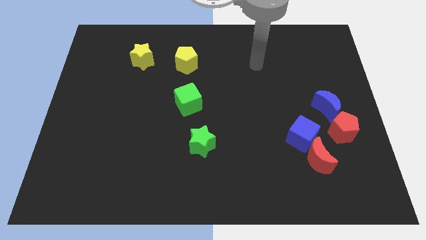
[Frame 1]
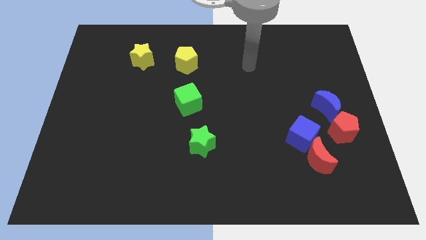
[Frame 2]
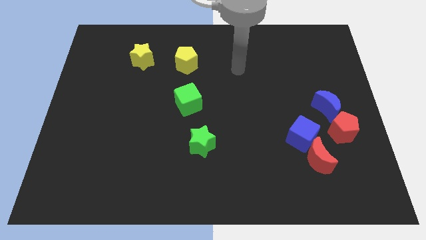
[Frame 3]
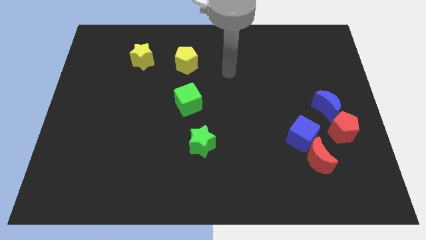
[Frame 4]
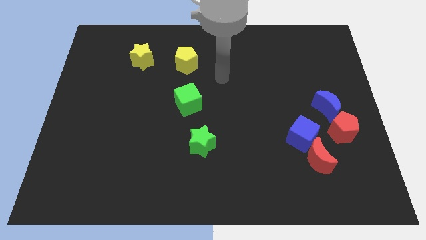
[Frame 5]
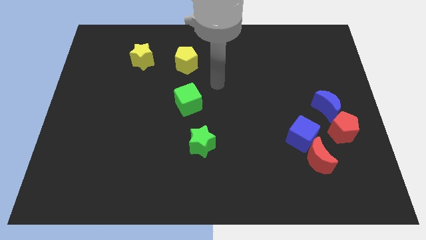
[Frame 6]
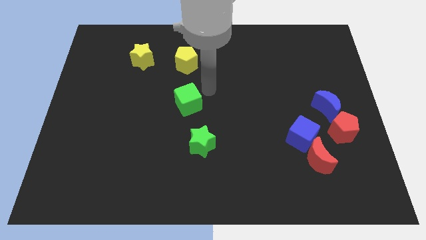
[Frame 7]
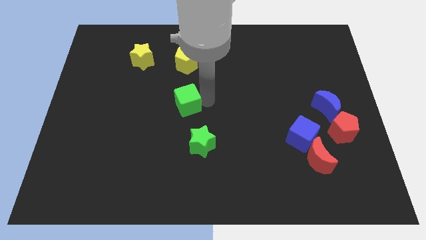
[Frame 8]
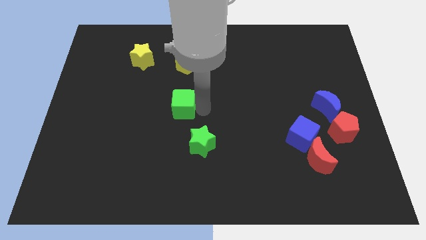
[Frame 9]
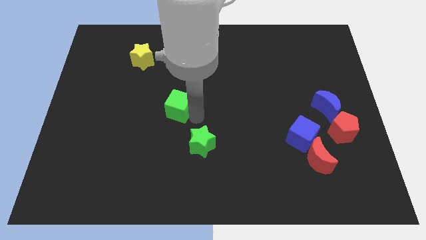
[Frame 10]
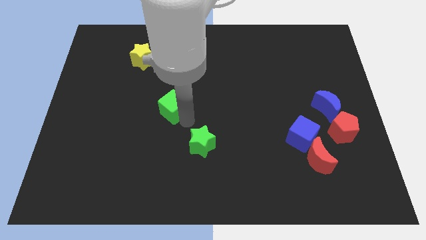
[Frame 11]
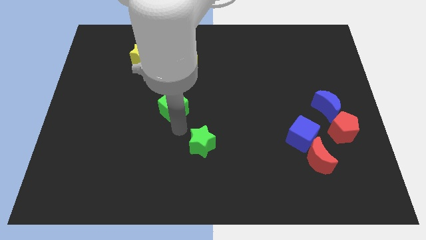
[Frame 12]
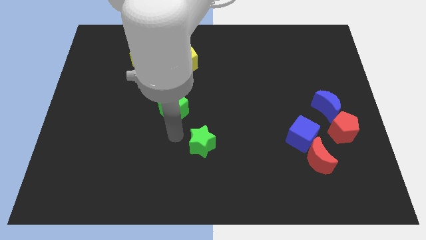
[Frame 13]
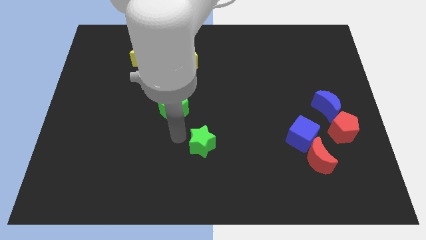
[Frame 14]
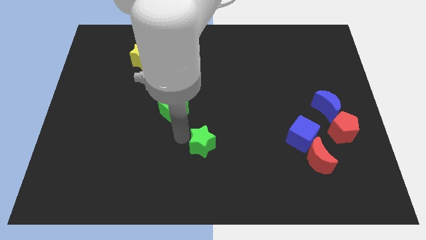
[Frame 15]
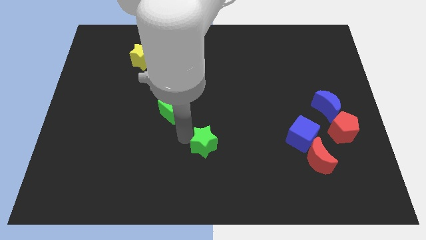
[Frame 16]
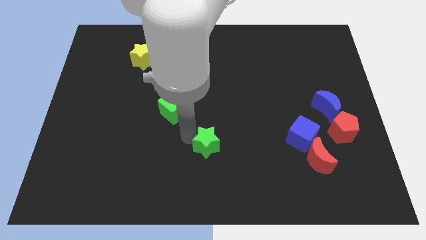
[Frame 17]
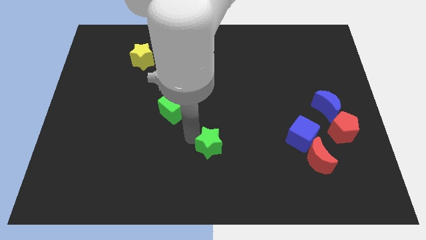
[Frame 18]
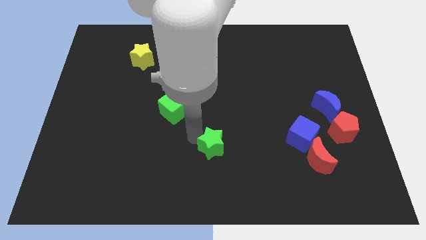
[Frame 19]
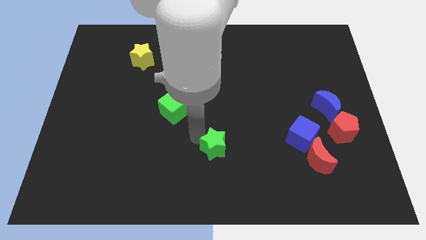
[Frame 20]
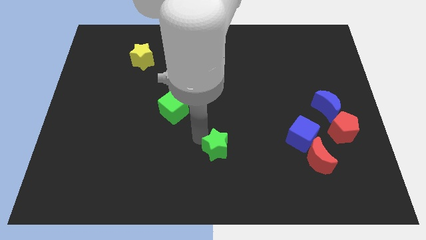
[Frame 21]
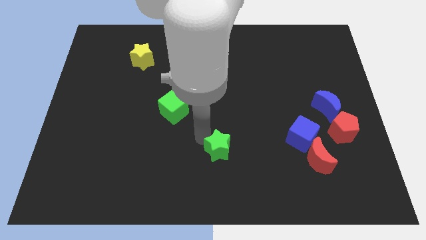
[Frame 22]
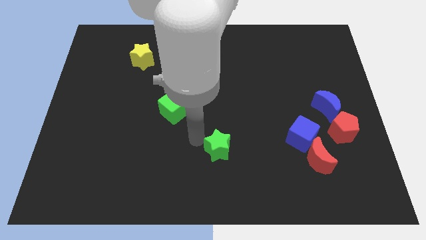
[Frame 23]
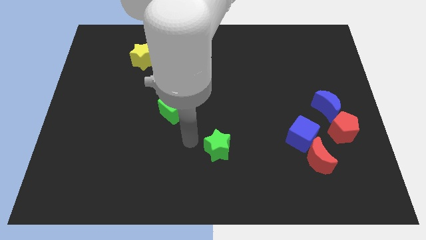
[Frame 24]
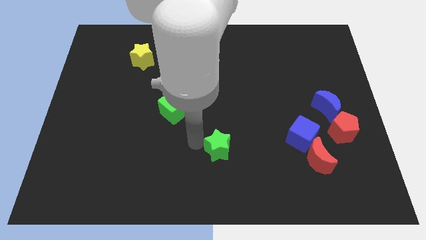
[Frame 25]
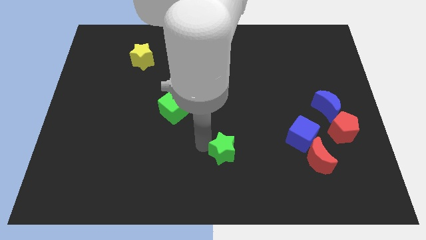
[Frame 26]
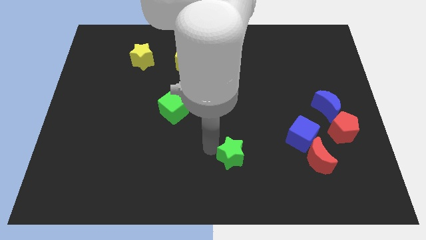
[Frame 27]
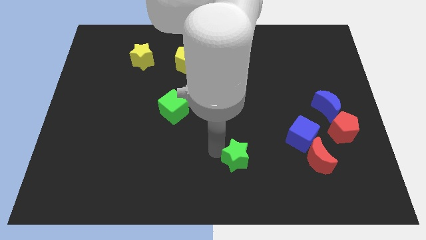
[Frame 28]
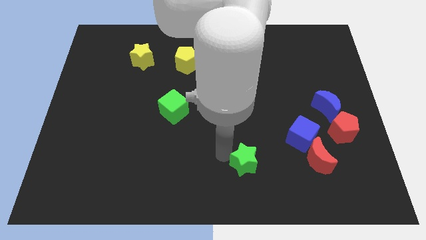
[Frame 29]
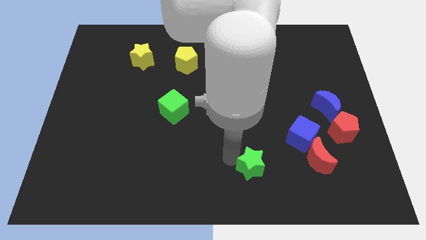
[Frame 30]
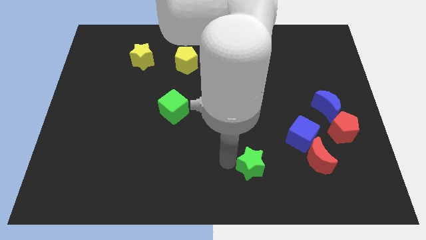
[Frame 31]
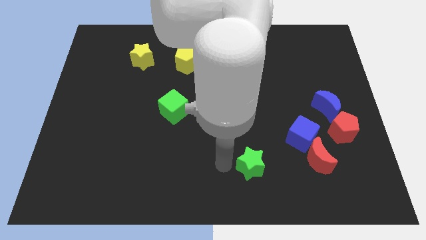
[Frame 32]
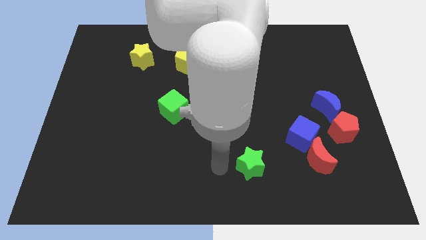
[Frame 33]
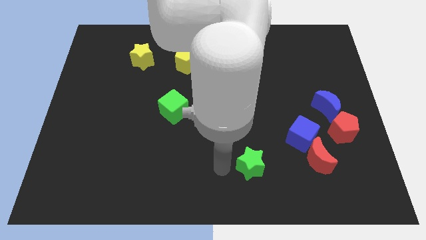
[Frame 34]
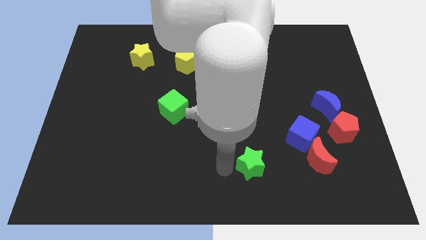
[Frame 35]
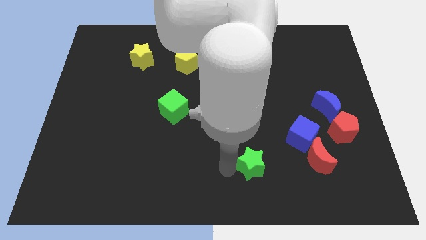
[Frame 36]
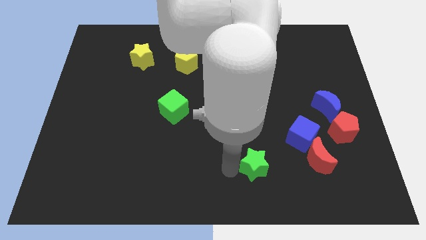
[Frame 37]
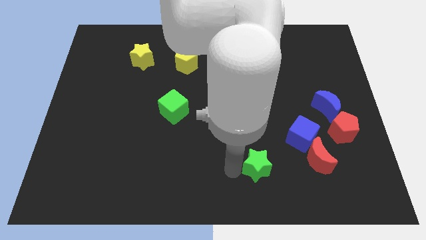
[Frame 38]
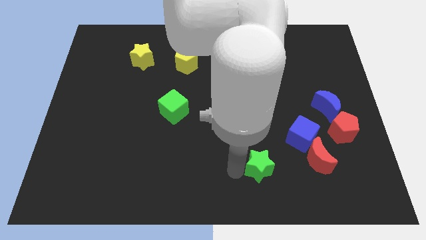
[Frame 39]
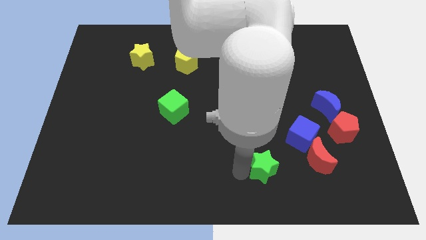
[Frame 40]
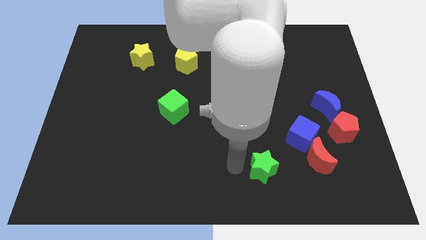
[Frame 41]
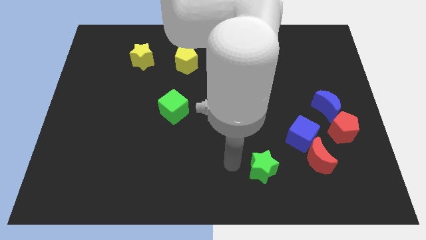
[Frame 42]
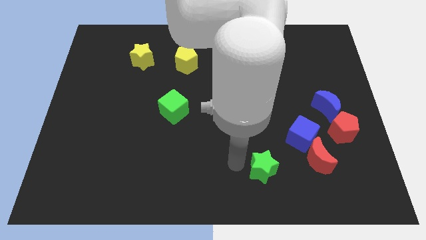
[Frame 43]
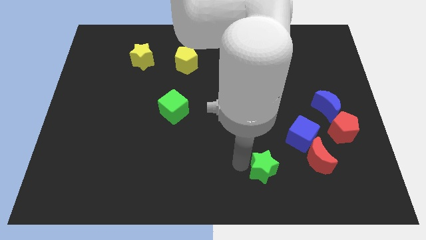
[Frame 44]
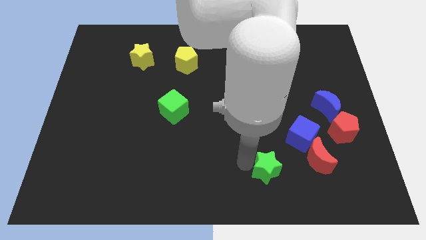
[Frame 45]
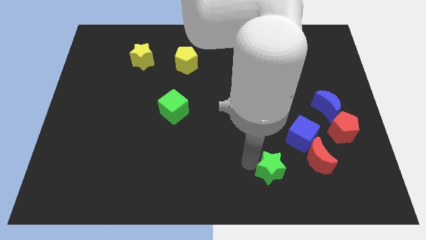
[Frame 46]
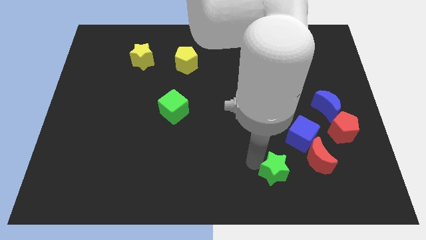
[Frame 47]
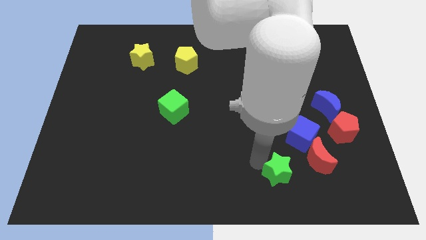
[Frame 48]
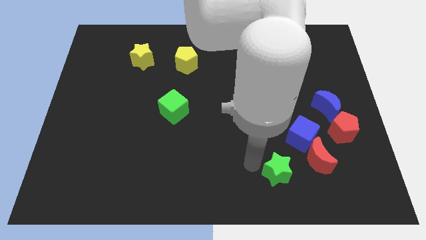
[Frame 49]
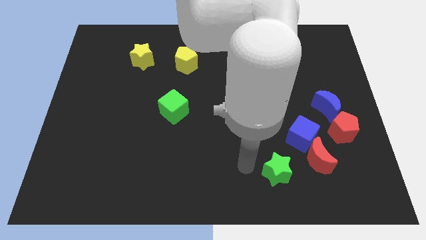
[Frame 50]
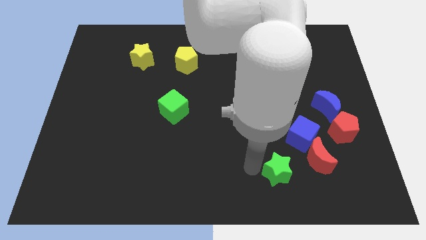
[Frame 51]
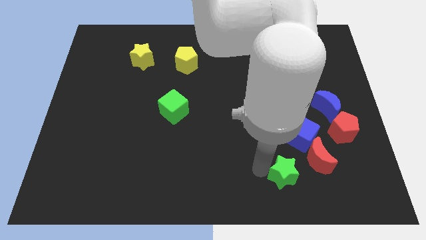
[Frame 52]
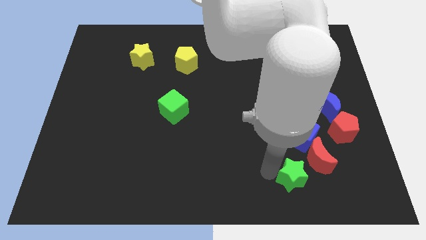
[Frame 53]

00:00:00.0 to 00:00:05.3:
put the green star to the bottom of the blue cube

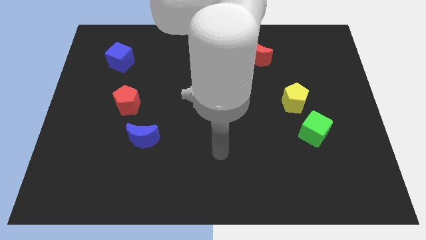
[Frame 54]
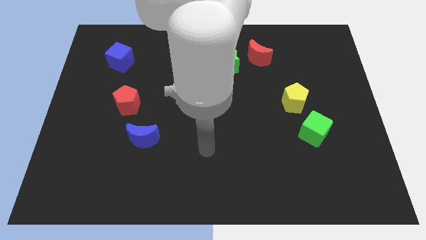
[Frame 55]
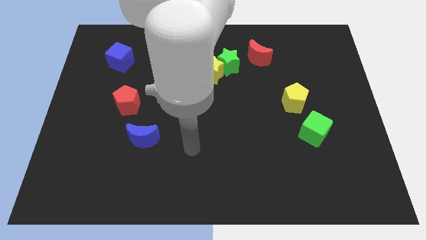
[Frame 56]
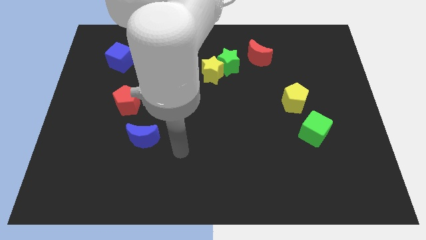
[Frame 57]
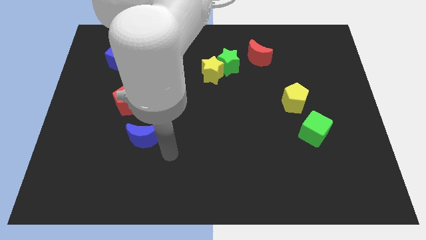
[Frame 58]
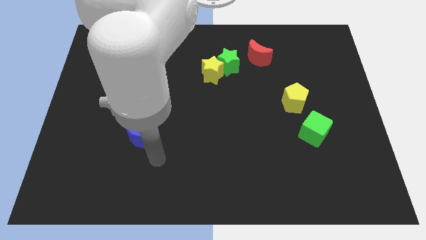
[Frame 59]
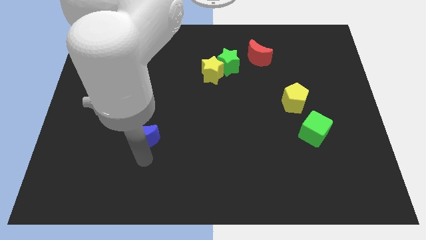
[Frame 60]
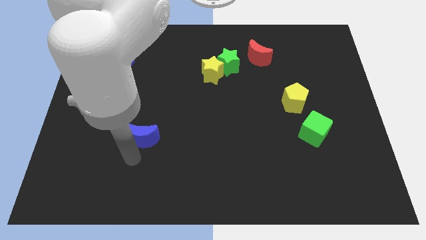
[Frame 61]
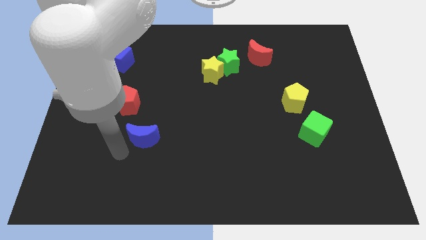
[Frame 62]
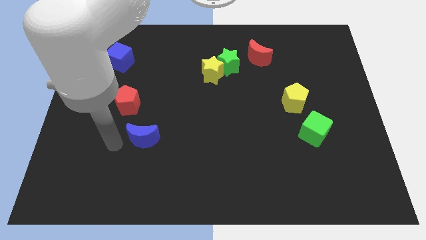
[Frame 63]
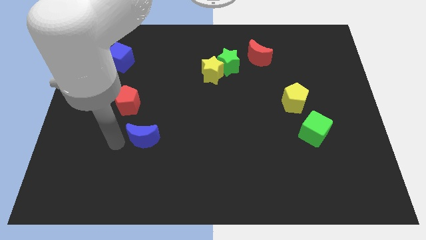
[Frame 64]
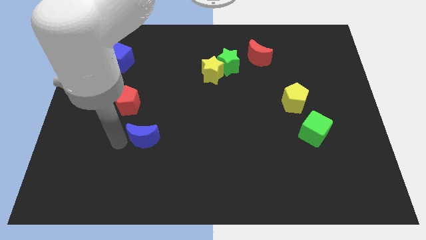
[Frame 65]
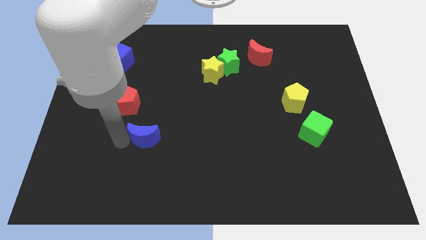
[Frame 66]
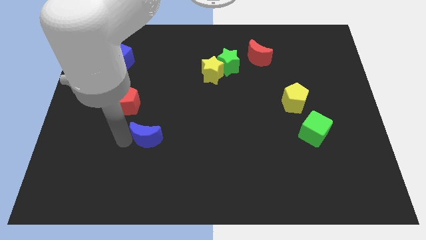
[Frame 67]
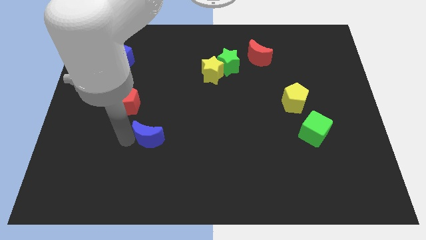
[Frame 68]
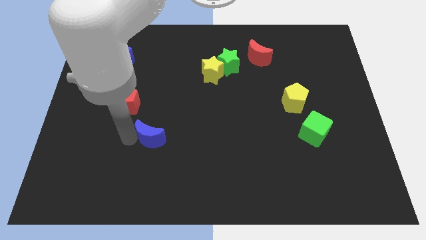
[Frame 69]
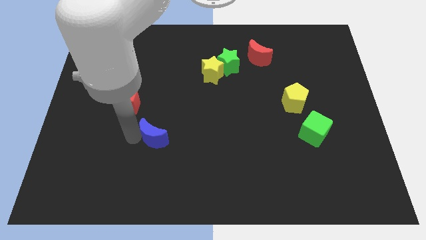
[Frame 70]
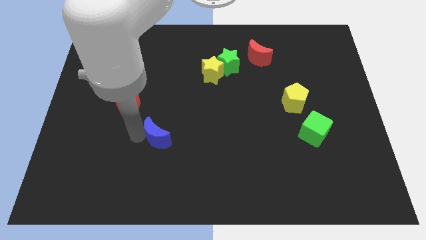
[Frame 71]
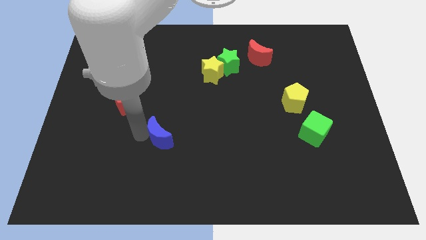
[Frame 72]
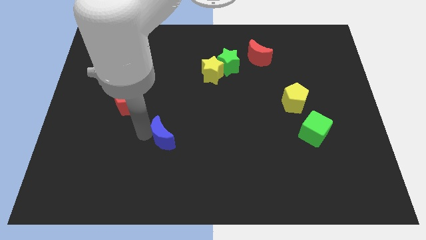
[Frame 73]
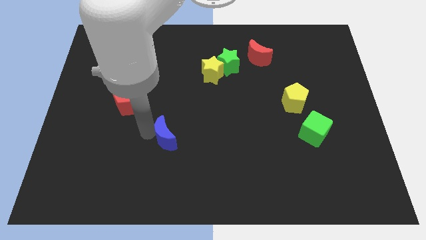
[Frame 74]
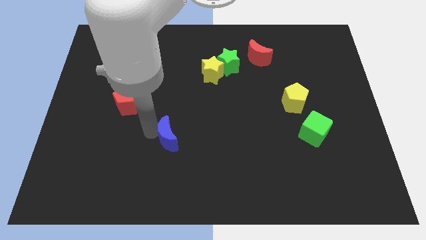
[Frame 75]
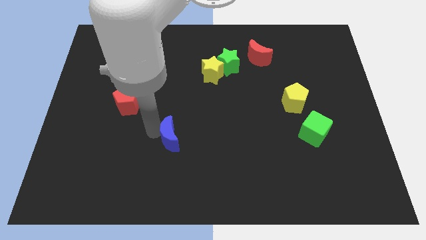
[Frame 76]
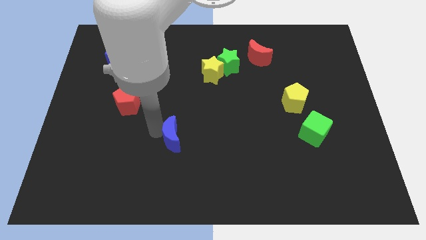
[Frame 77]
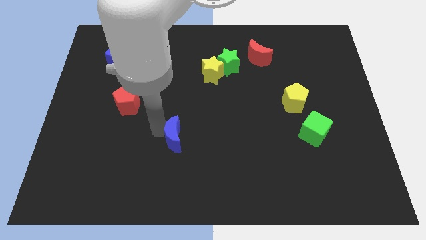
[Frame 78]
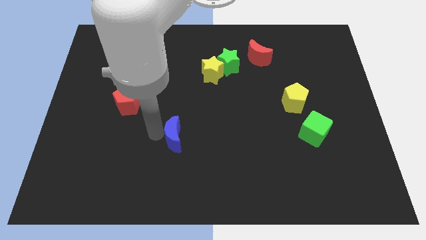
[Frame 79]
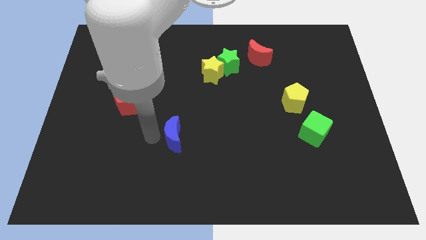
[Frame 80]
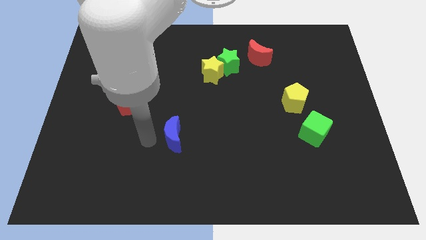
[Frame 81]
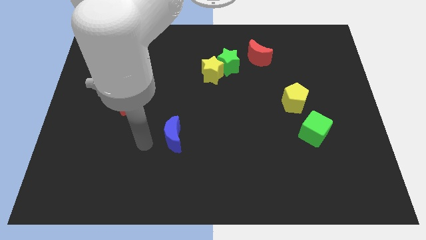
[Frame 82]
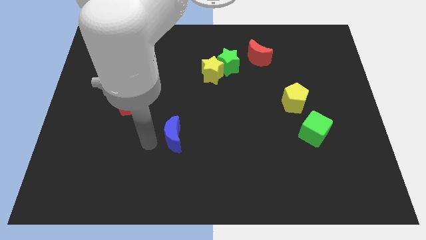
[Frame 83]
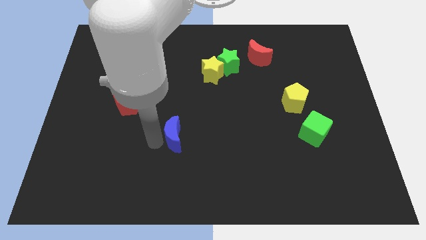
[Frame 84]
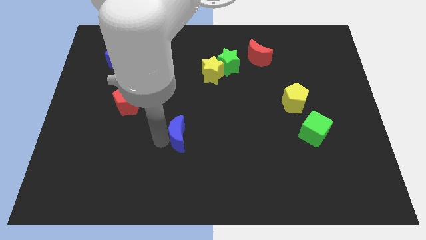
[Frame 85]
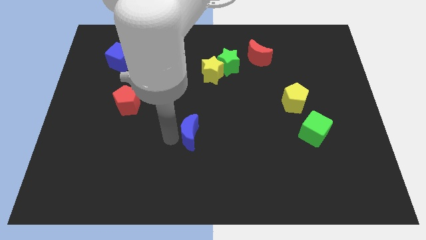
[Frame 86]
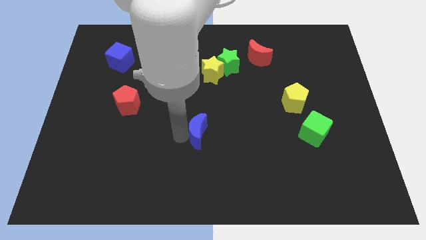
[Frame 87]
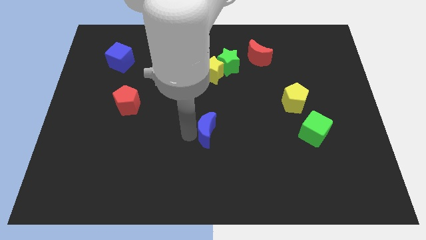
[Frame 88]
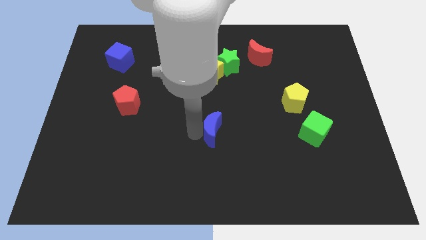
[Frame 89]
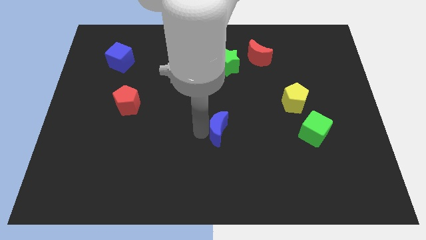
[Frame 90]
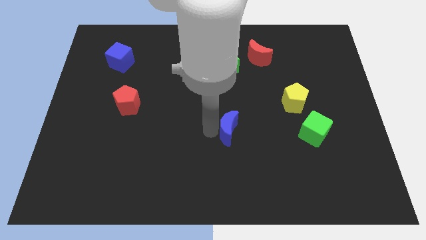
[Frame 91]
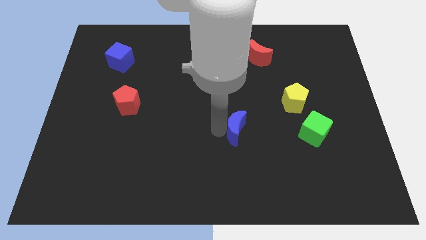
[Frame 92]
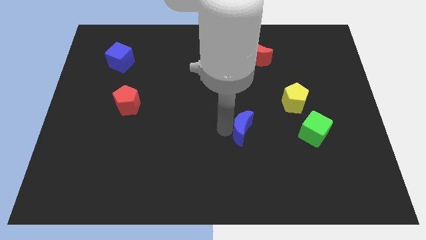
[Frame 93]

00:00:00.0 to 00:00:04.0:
slide the blue moon left of the green cube
